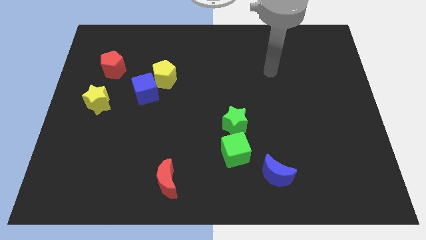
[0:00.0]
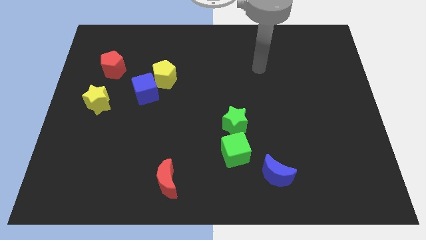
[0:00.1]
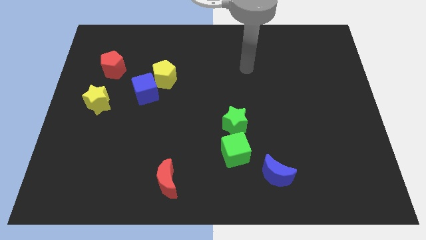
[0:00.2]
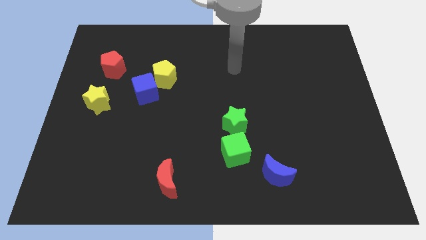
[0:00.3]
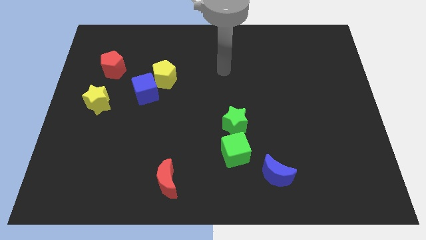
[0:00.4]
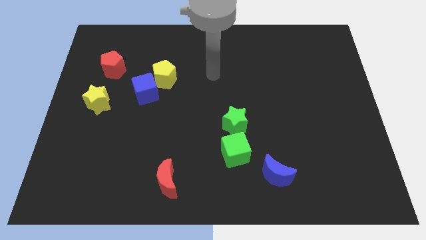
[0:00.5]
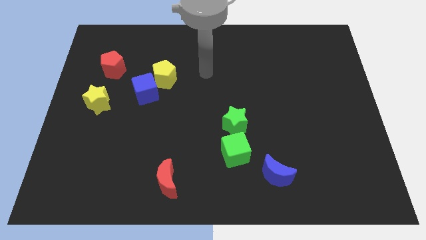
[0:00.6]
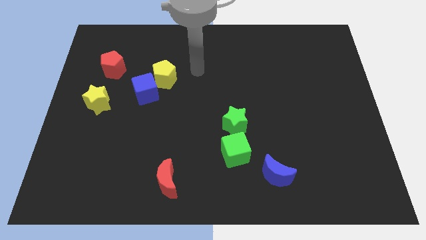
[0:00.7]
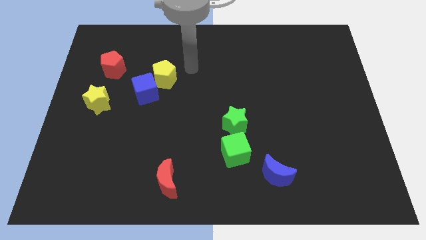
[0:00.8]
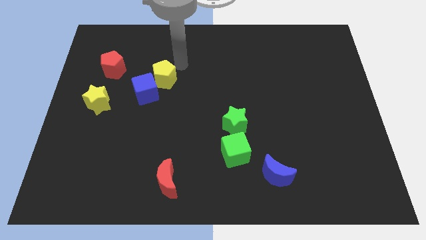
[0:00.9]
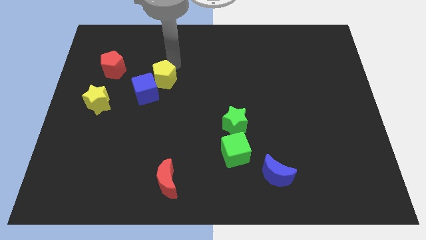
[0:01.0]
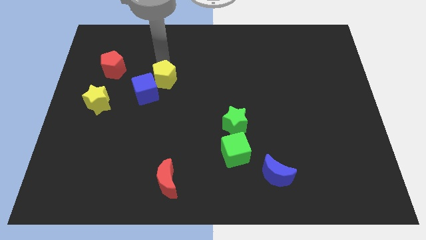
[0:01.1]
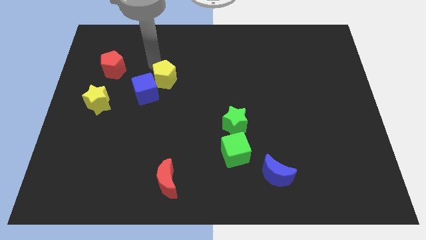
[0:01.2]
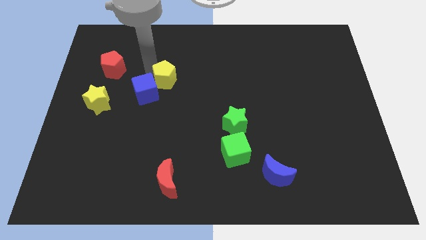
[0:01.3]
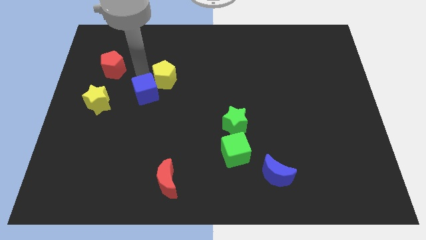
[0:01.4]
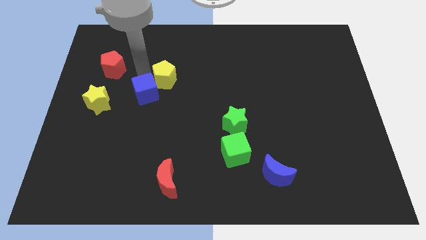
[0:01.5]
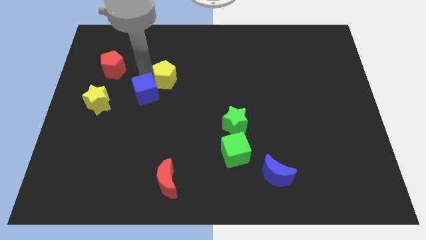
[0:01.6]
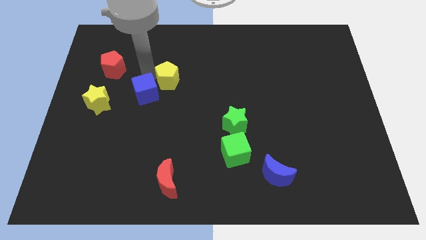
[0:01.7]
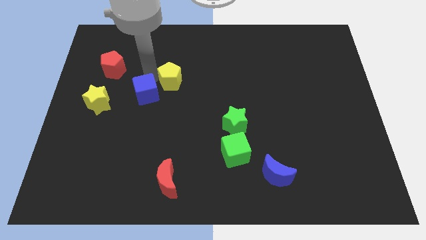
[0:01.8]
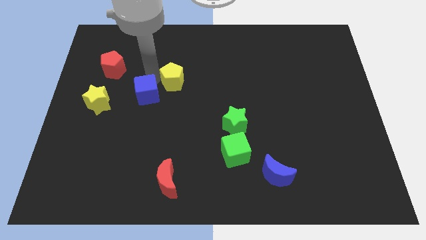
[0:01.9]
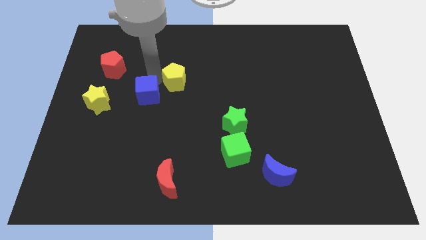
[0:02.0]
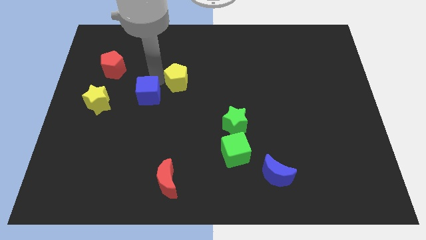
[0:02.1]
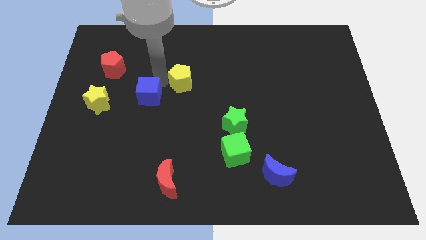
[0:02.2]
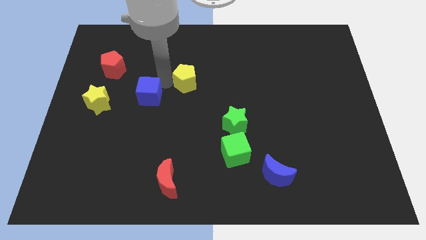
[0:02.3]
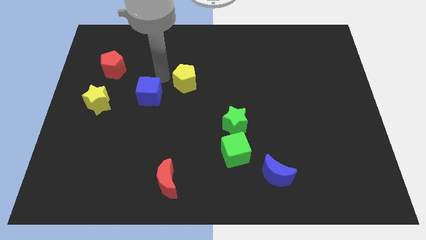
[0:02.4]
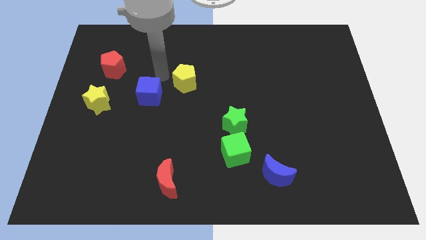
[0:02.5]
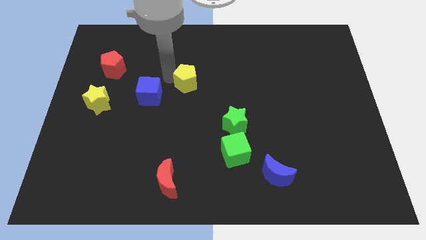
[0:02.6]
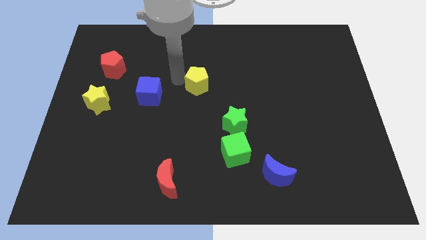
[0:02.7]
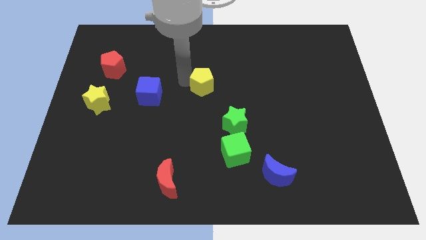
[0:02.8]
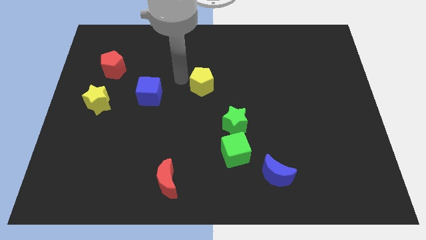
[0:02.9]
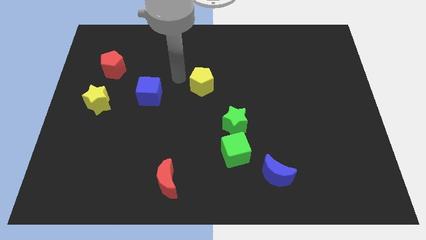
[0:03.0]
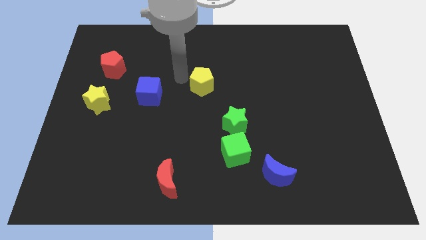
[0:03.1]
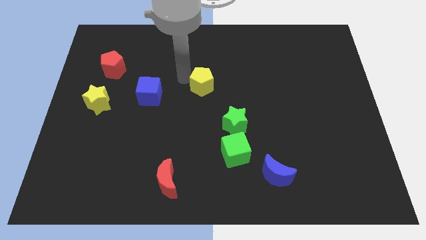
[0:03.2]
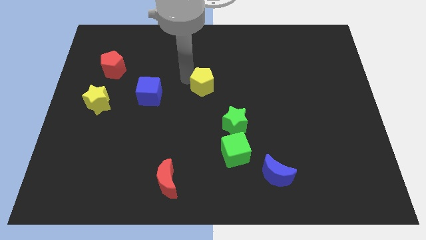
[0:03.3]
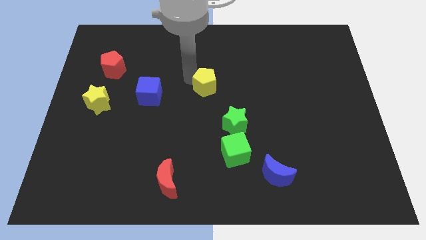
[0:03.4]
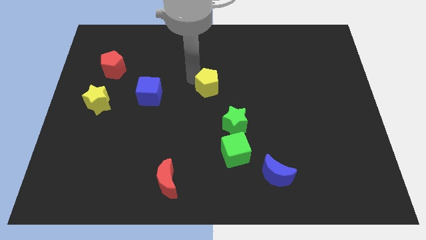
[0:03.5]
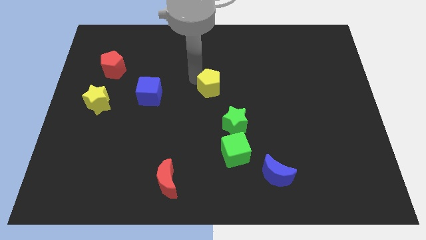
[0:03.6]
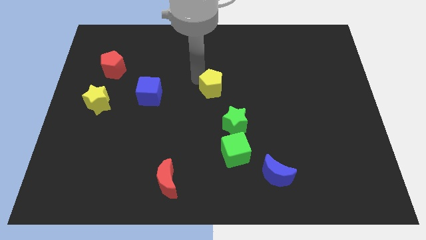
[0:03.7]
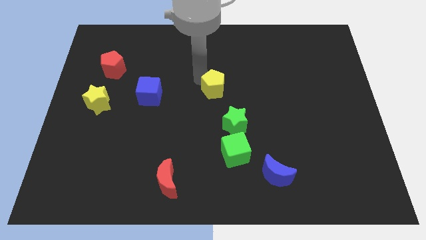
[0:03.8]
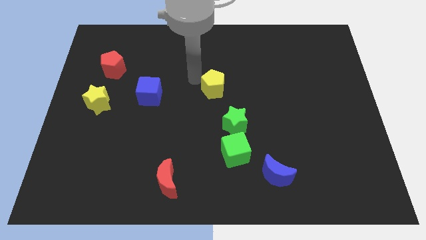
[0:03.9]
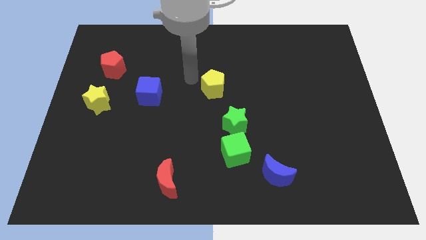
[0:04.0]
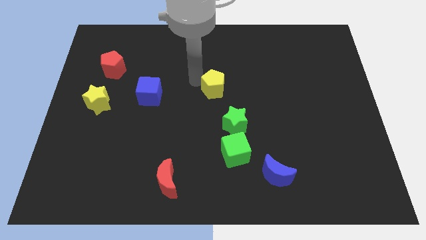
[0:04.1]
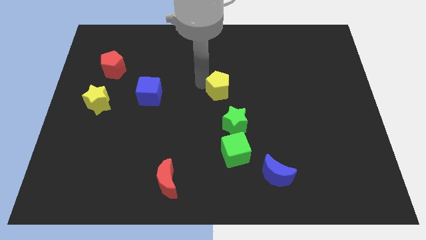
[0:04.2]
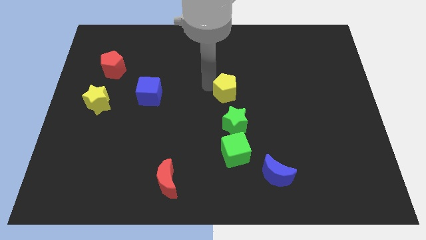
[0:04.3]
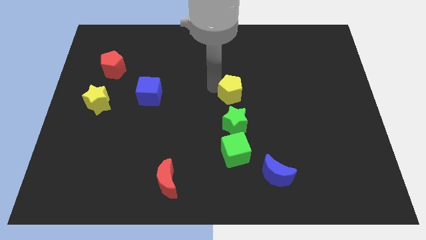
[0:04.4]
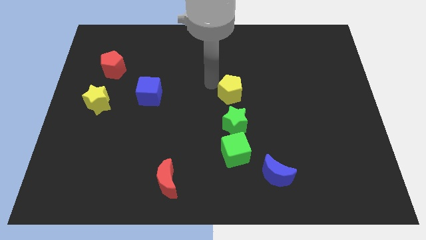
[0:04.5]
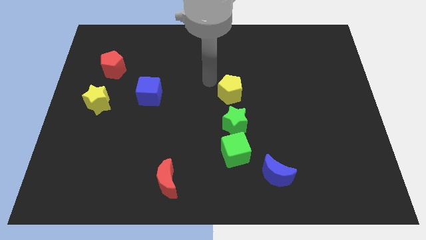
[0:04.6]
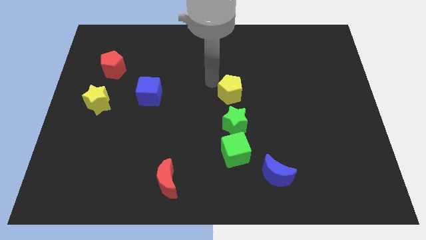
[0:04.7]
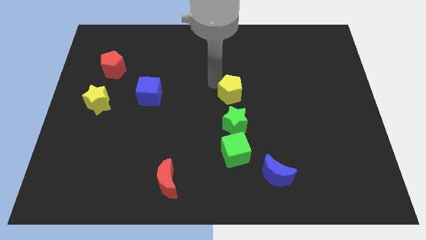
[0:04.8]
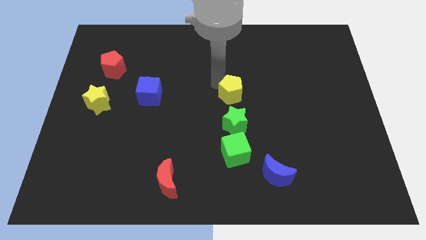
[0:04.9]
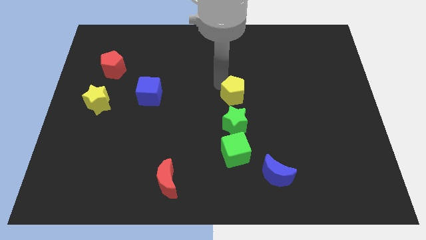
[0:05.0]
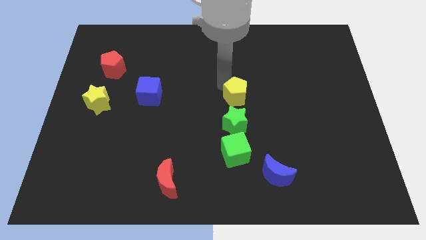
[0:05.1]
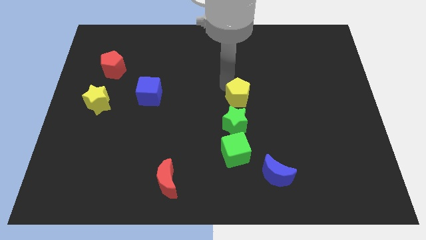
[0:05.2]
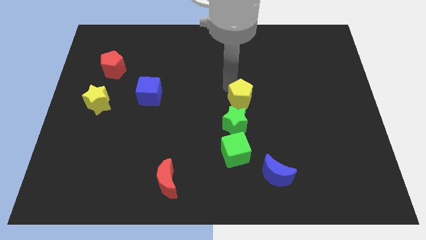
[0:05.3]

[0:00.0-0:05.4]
slide the yellow pentagon to the top right side of the green star

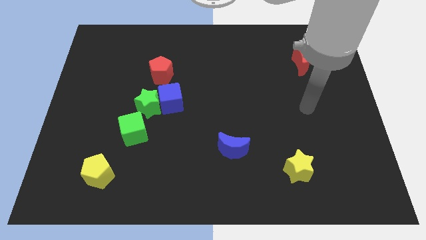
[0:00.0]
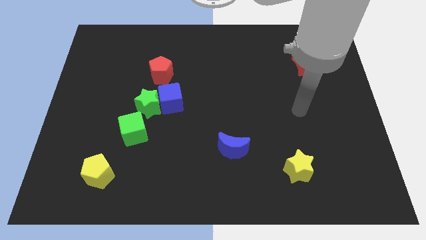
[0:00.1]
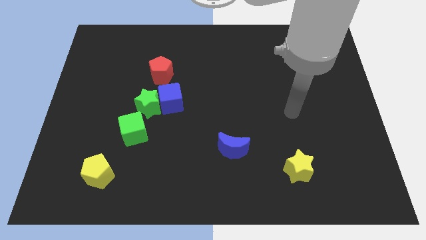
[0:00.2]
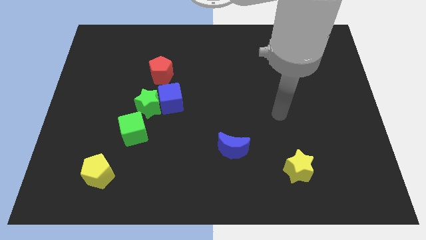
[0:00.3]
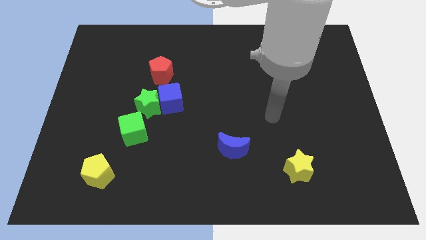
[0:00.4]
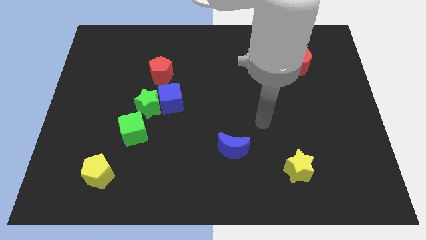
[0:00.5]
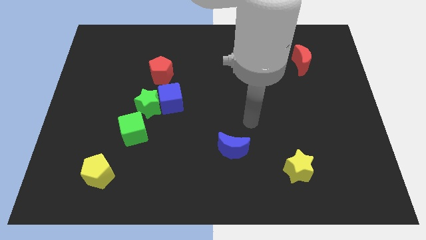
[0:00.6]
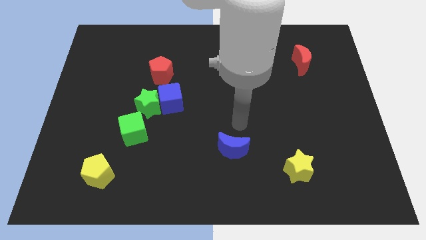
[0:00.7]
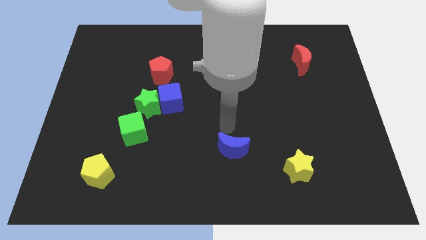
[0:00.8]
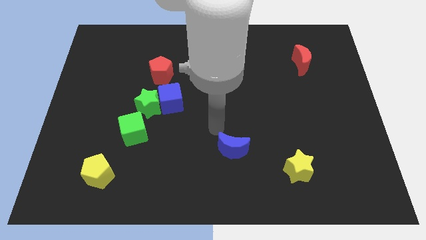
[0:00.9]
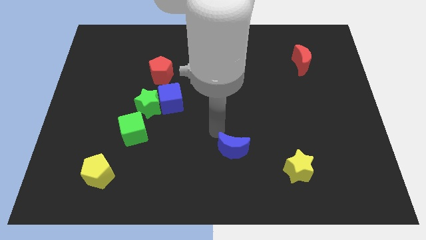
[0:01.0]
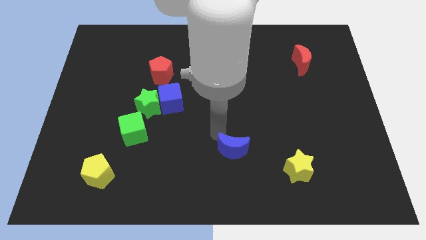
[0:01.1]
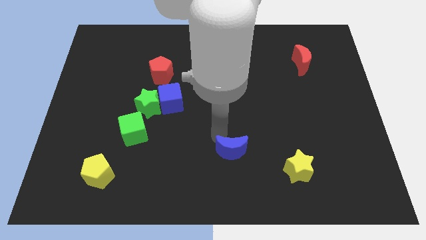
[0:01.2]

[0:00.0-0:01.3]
push the blue moon left of the yellow star
